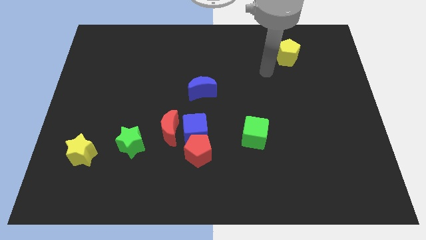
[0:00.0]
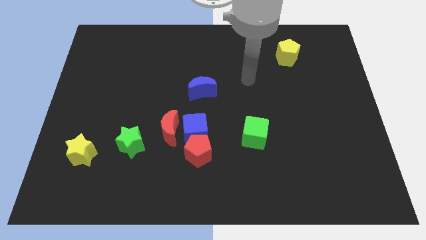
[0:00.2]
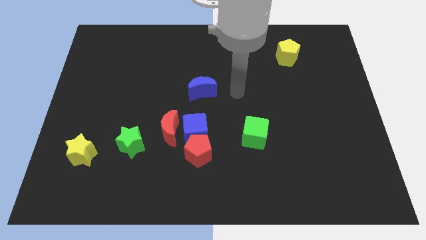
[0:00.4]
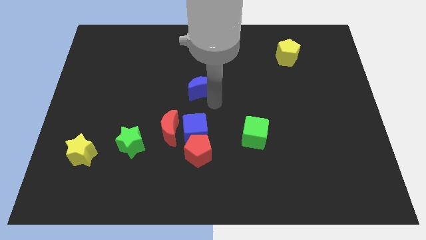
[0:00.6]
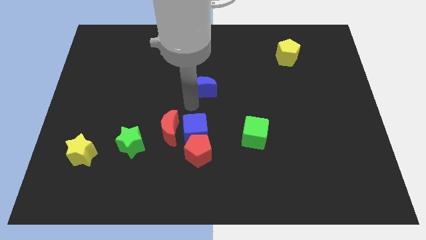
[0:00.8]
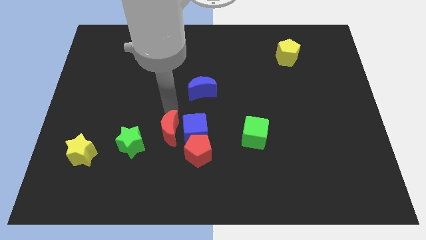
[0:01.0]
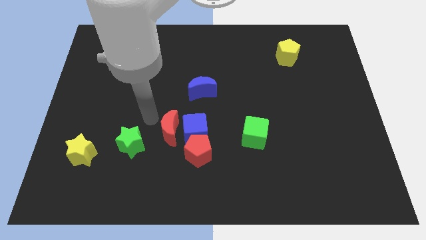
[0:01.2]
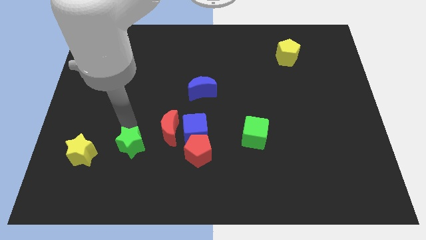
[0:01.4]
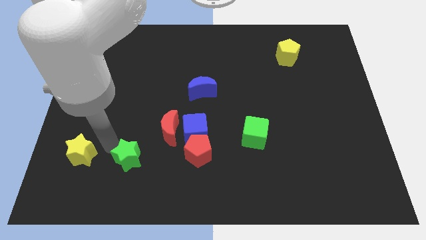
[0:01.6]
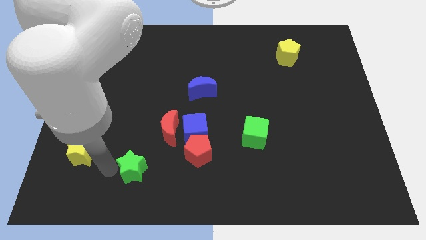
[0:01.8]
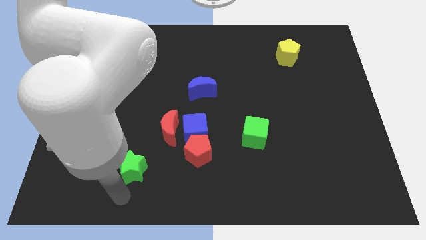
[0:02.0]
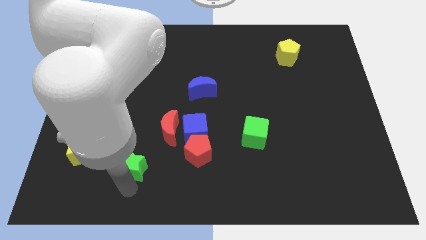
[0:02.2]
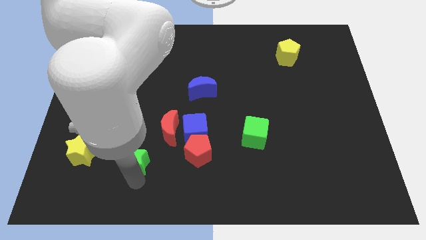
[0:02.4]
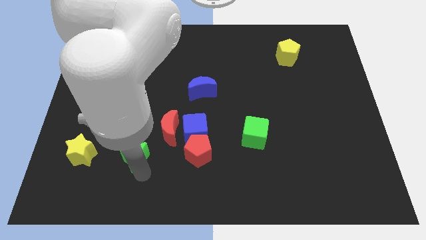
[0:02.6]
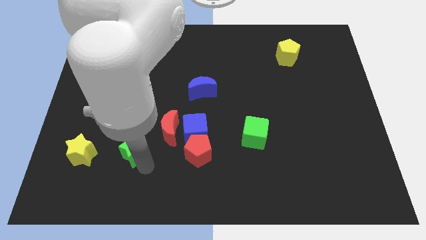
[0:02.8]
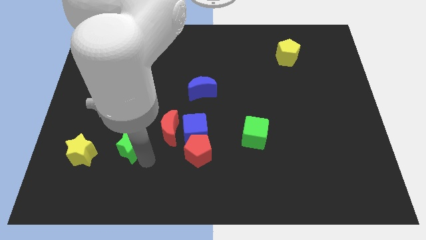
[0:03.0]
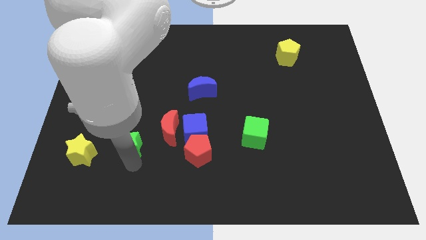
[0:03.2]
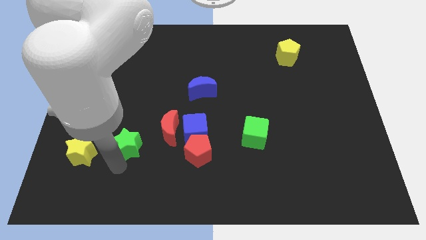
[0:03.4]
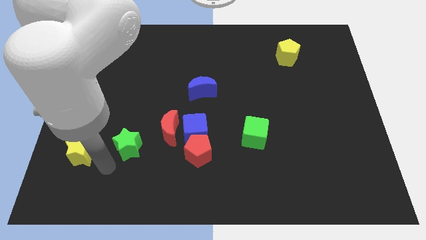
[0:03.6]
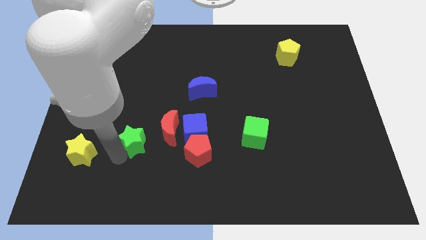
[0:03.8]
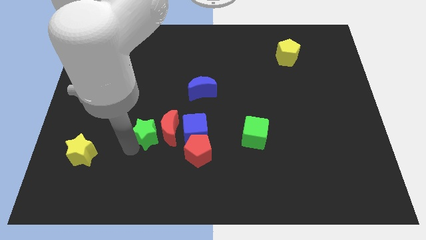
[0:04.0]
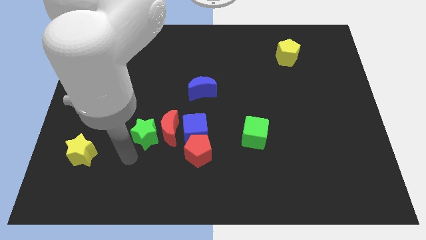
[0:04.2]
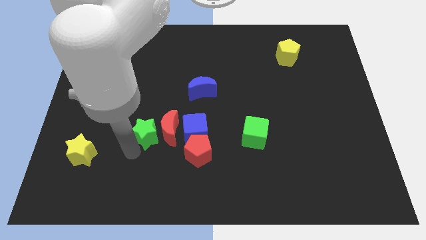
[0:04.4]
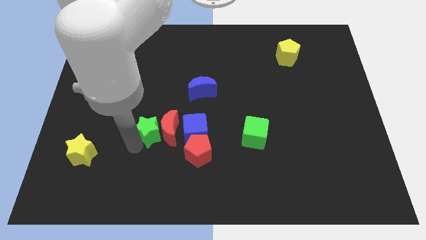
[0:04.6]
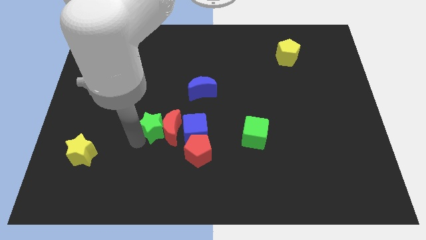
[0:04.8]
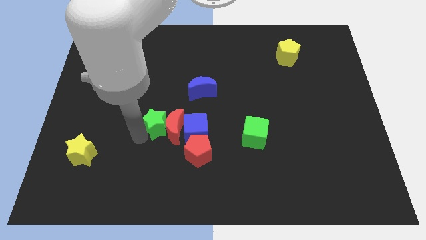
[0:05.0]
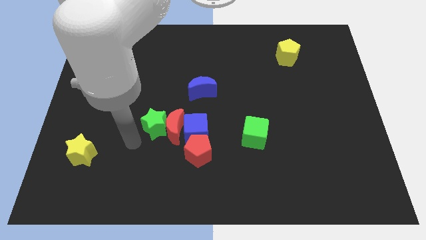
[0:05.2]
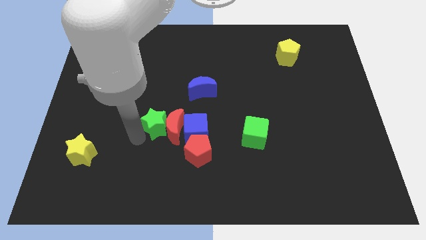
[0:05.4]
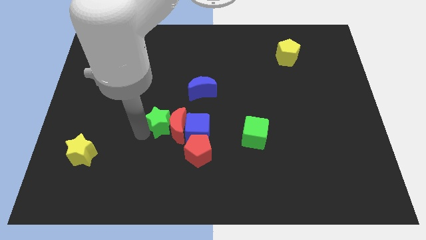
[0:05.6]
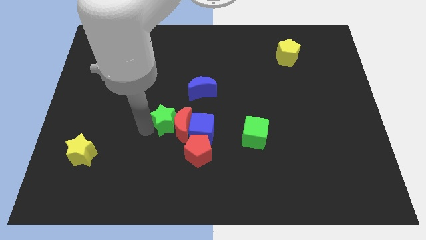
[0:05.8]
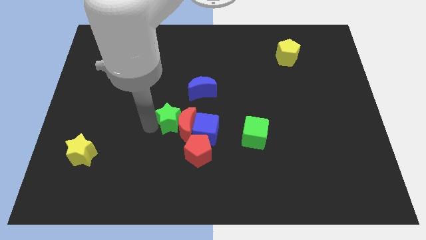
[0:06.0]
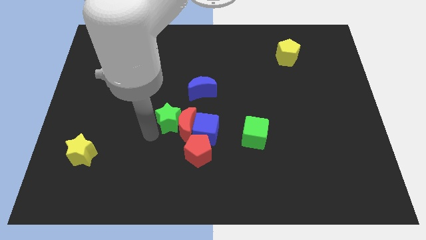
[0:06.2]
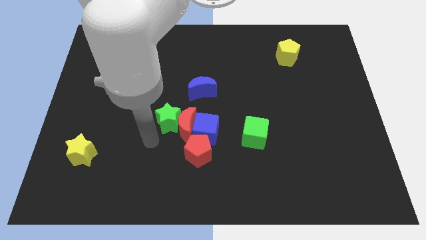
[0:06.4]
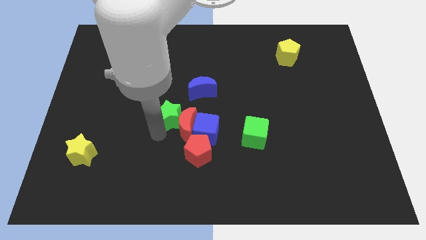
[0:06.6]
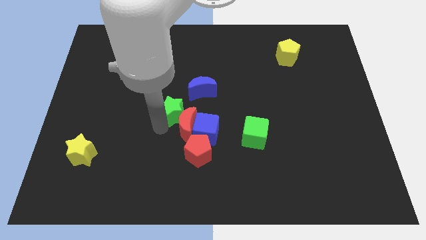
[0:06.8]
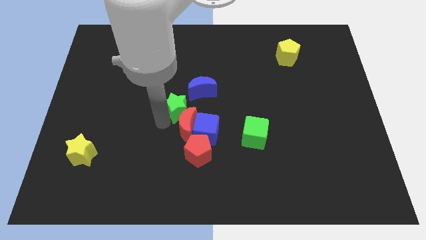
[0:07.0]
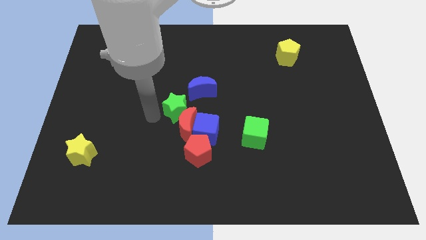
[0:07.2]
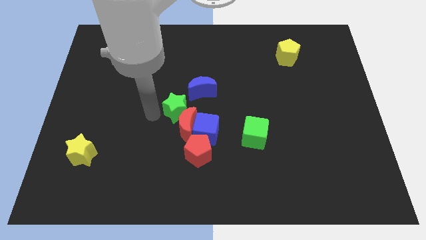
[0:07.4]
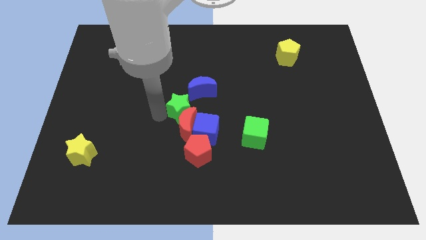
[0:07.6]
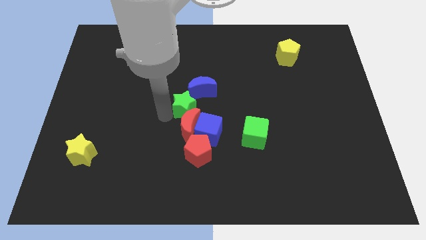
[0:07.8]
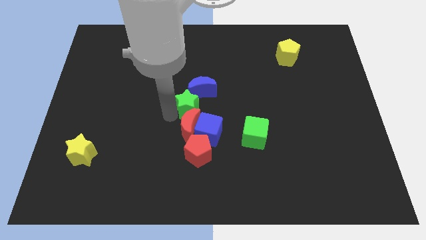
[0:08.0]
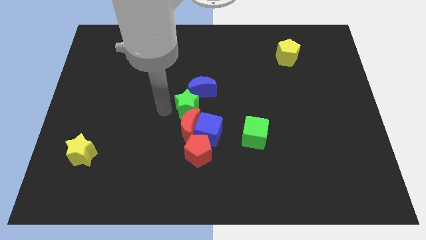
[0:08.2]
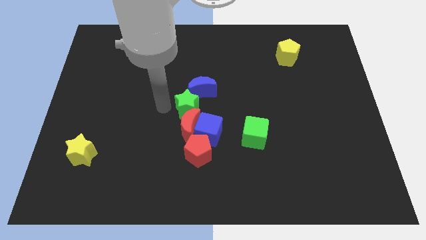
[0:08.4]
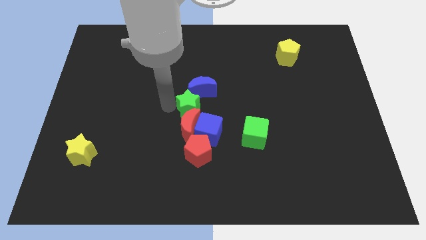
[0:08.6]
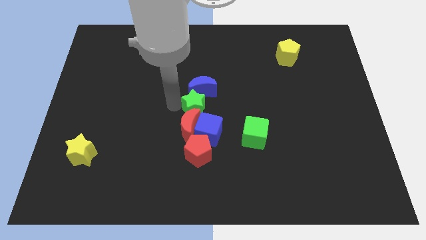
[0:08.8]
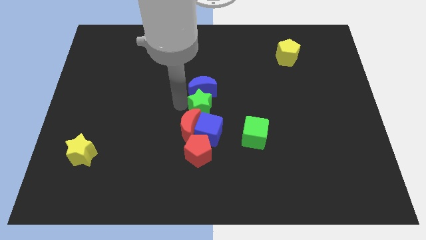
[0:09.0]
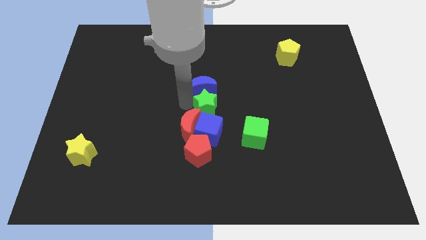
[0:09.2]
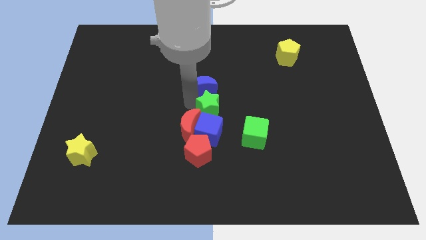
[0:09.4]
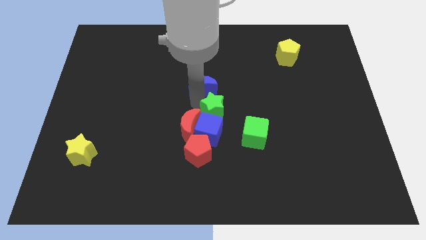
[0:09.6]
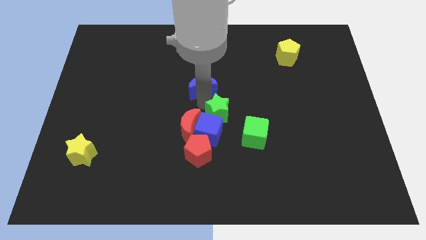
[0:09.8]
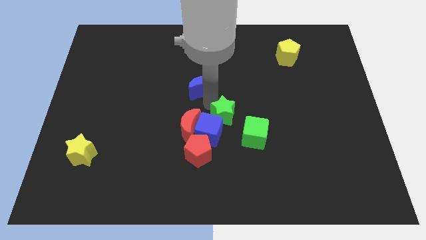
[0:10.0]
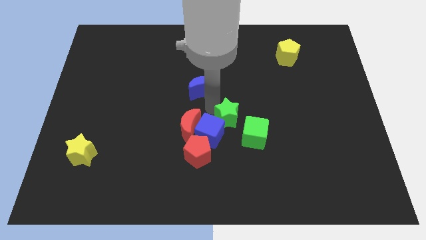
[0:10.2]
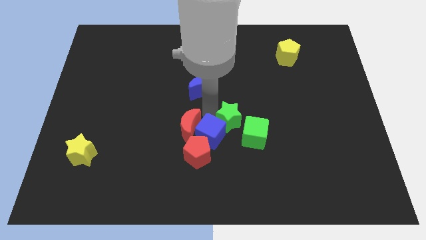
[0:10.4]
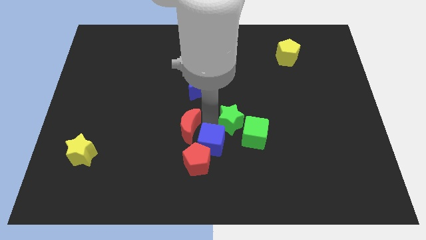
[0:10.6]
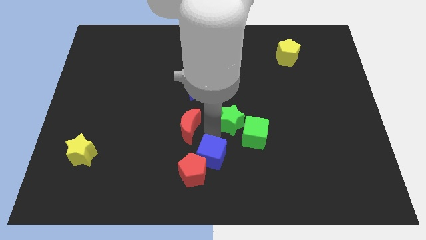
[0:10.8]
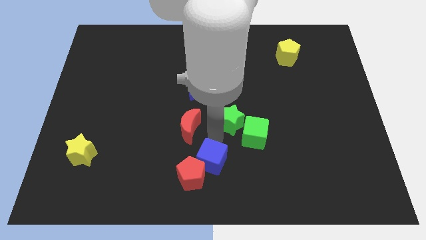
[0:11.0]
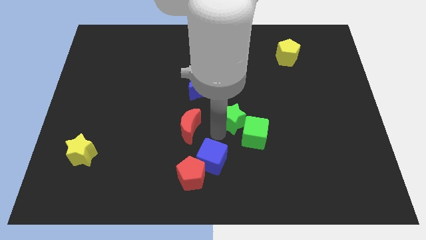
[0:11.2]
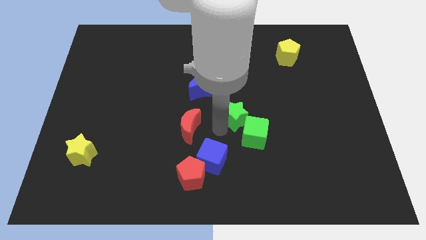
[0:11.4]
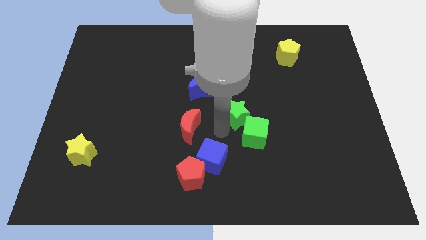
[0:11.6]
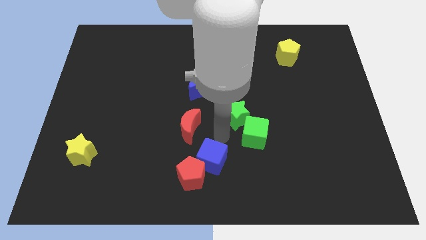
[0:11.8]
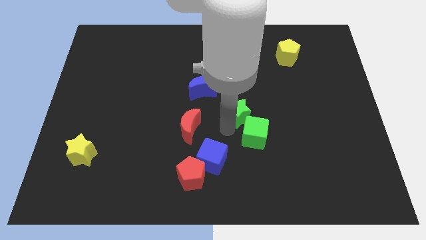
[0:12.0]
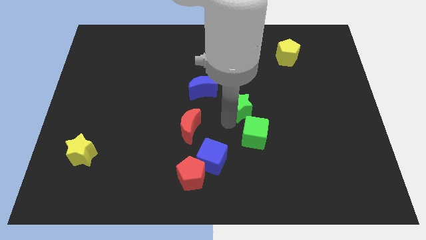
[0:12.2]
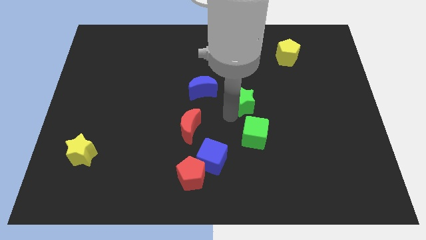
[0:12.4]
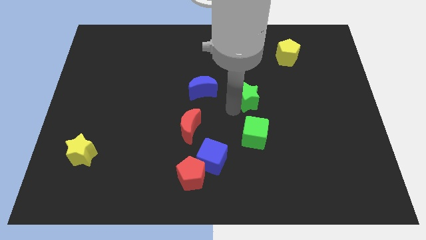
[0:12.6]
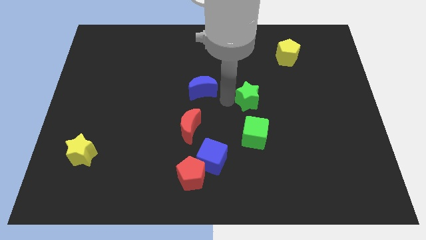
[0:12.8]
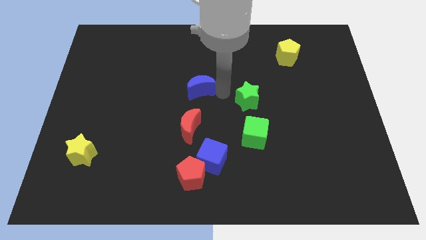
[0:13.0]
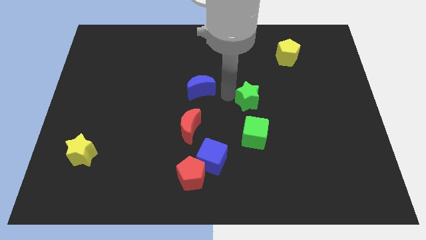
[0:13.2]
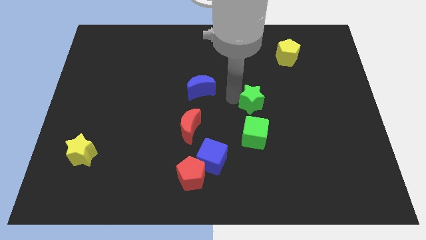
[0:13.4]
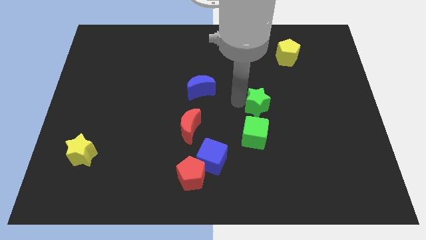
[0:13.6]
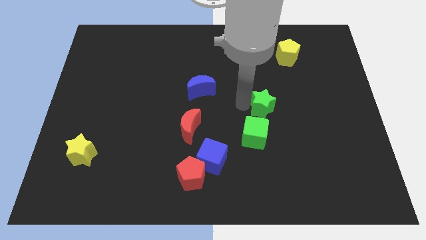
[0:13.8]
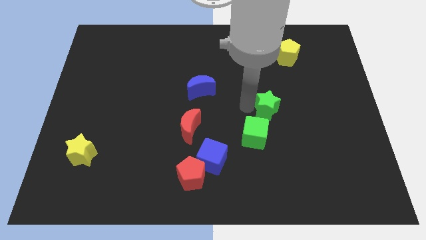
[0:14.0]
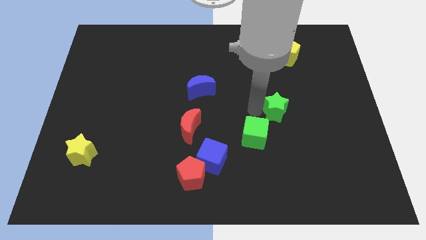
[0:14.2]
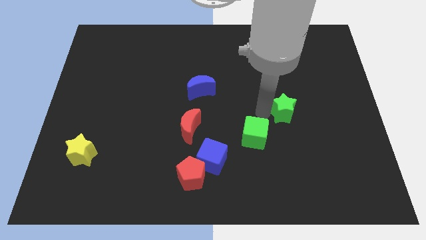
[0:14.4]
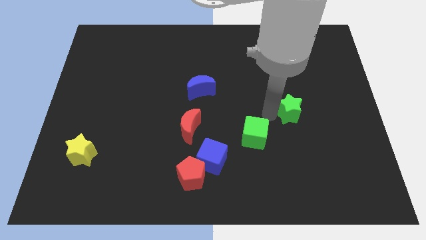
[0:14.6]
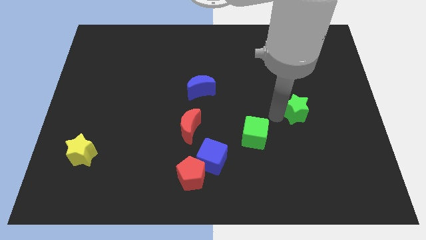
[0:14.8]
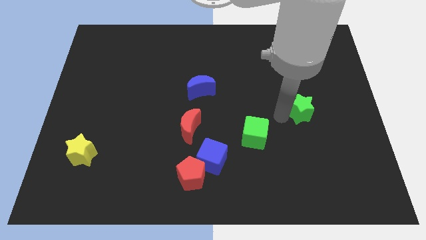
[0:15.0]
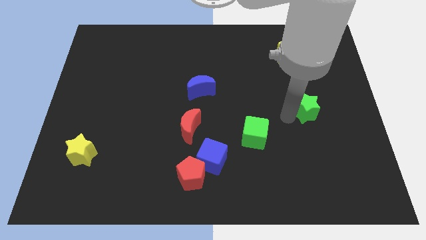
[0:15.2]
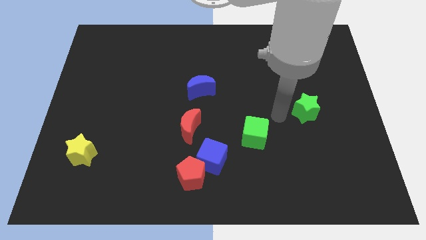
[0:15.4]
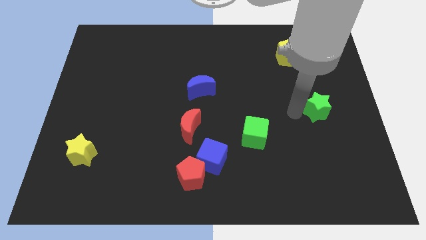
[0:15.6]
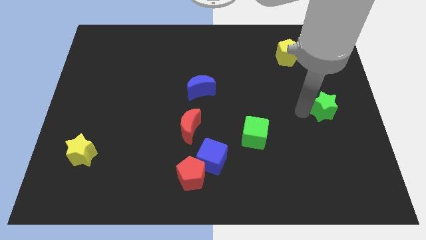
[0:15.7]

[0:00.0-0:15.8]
push the green star to the right side
